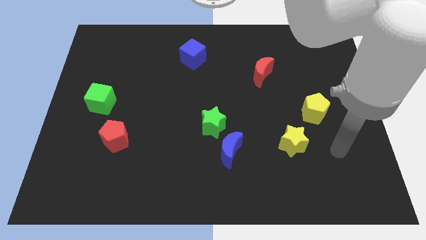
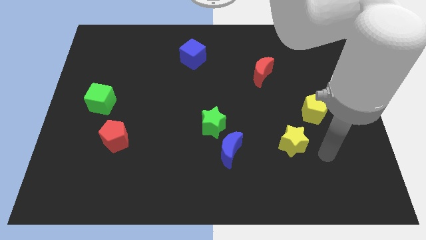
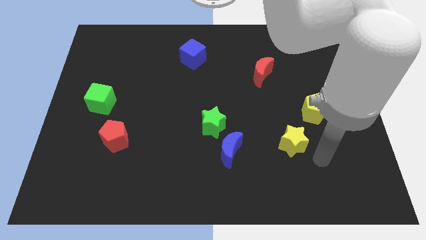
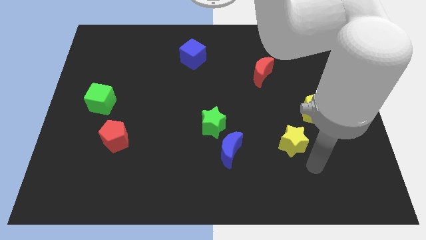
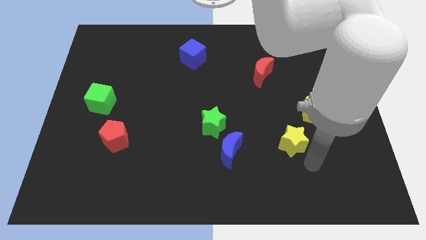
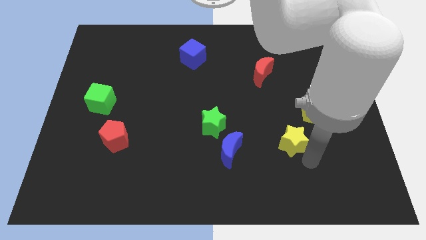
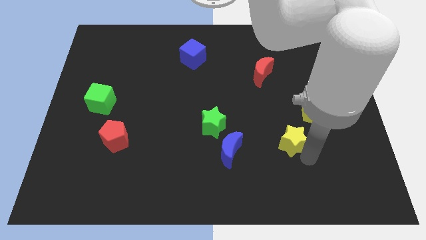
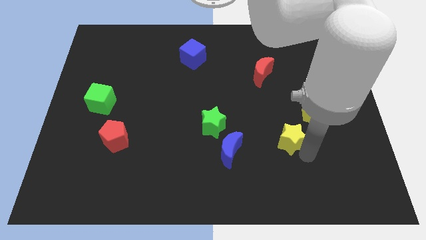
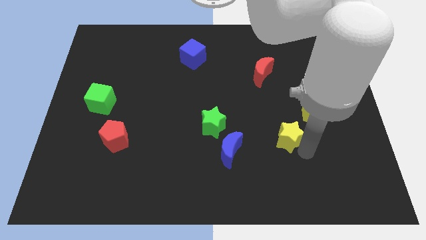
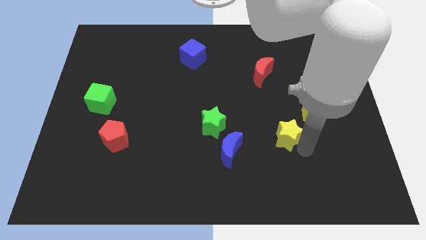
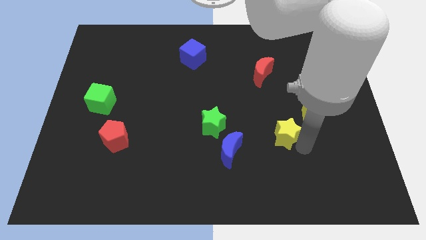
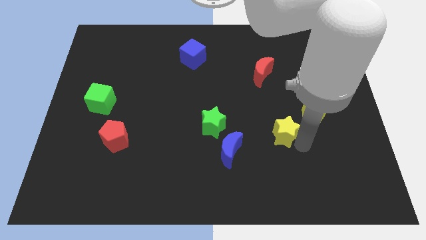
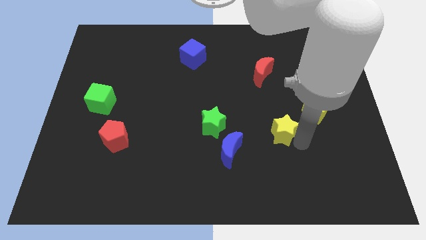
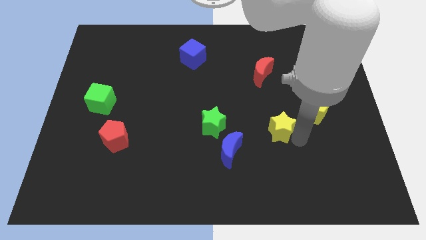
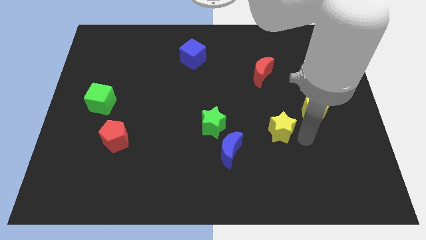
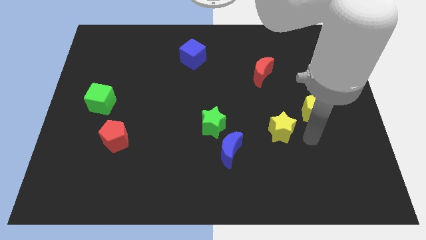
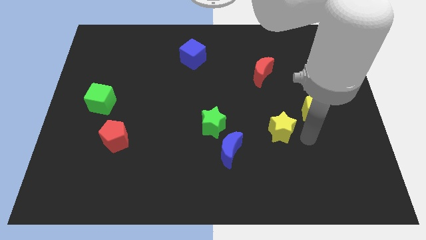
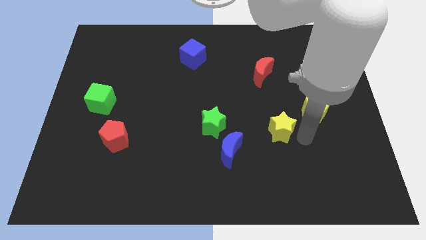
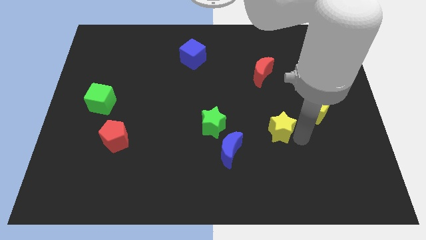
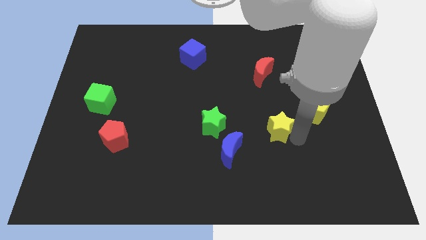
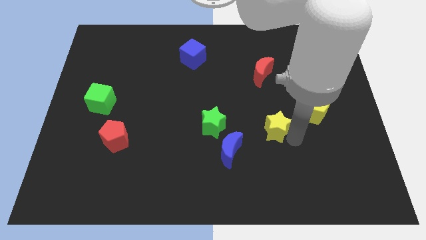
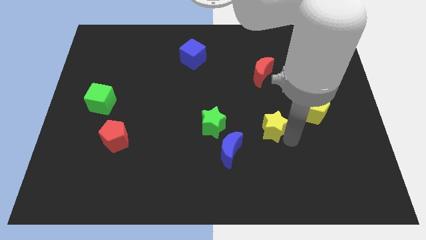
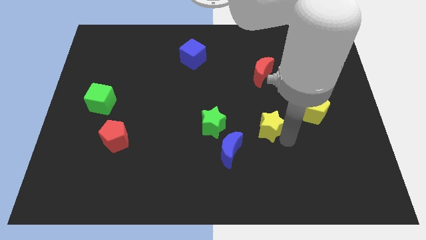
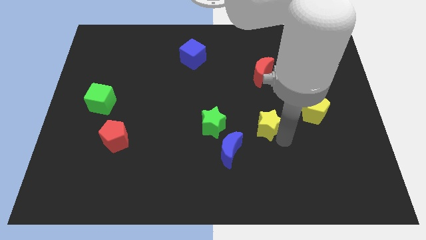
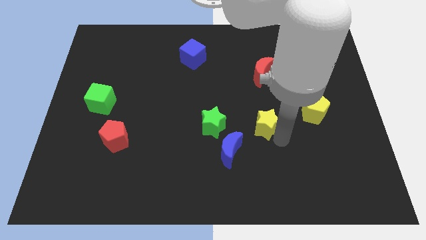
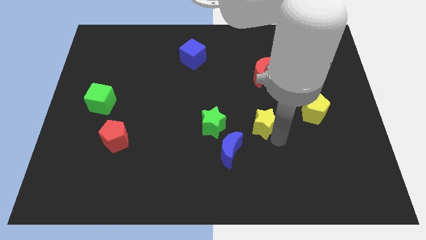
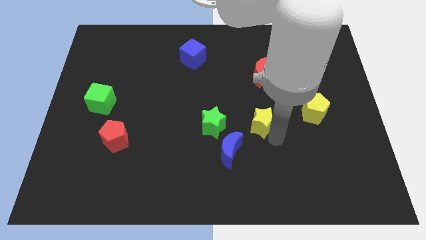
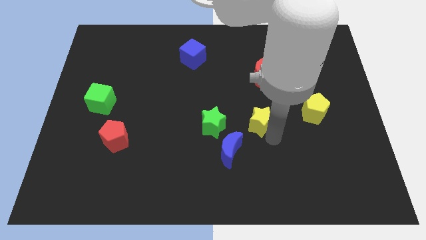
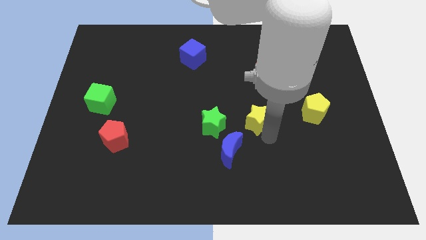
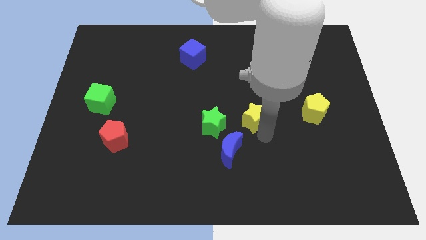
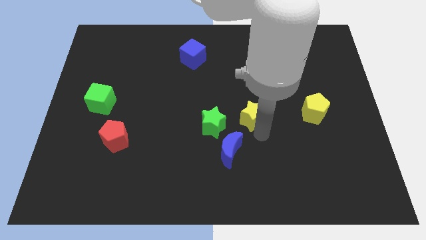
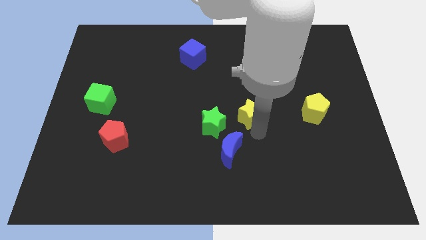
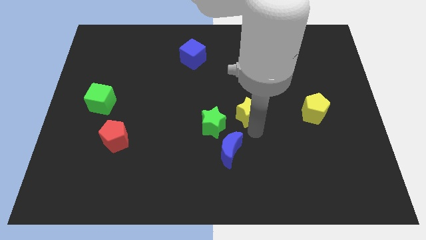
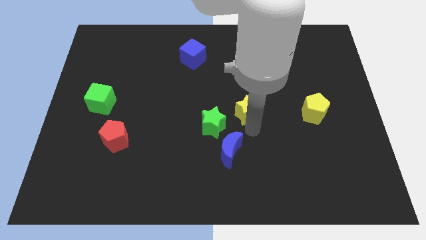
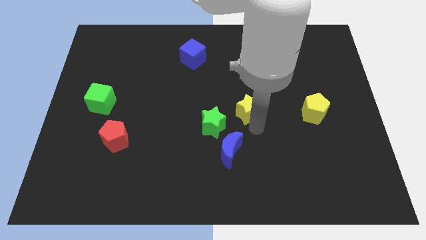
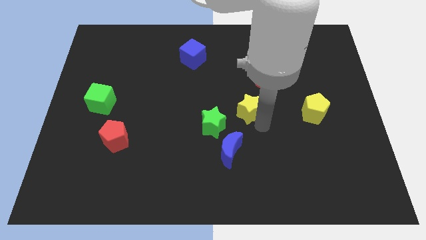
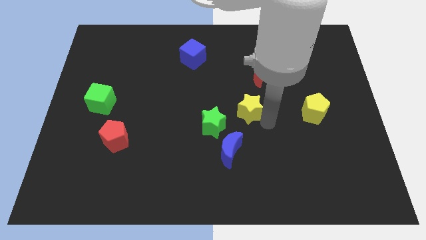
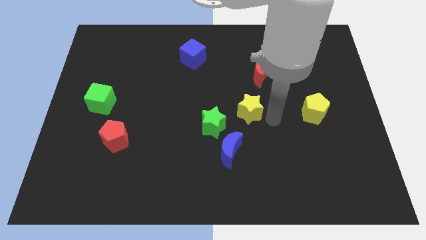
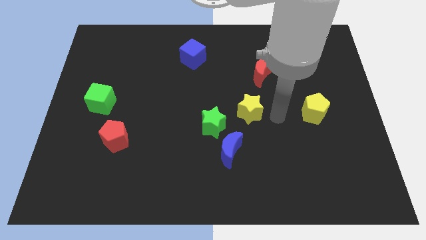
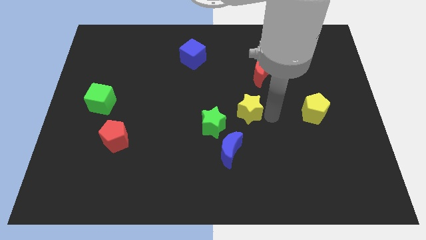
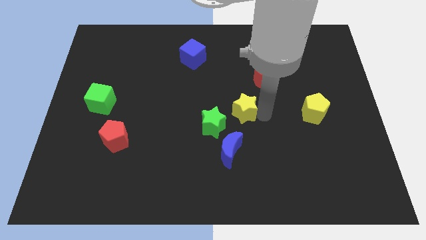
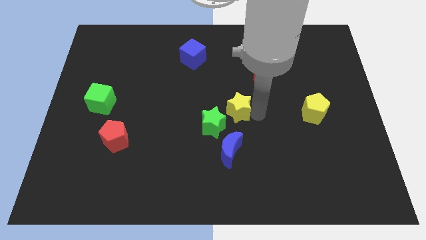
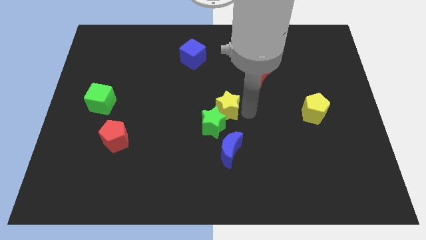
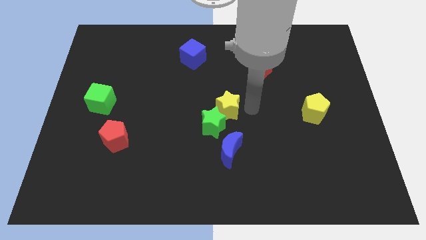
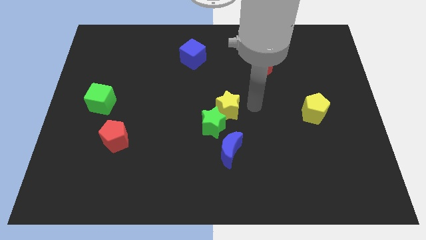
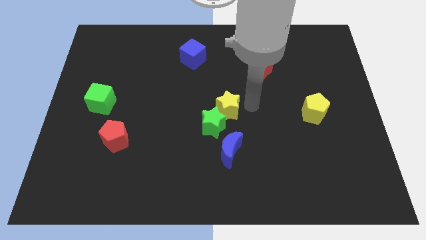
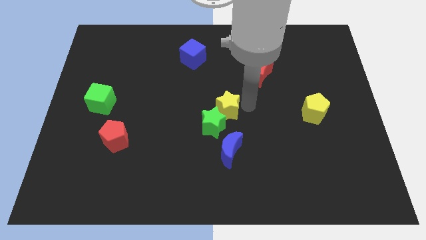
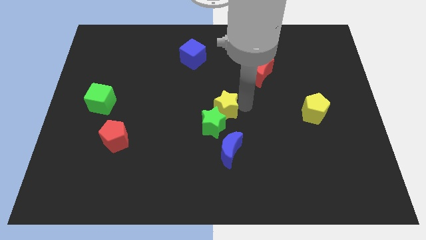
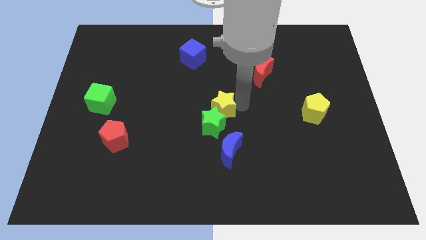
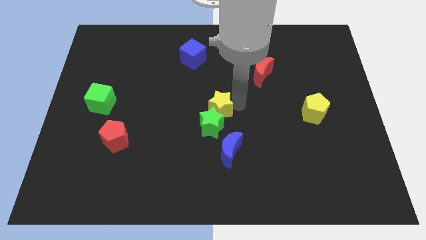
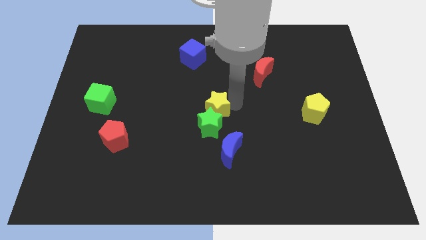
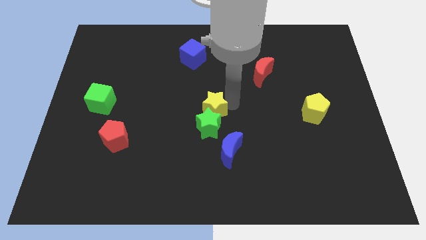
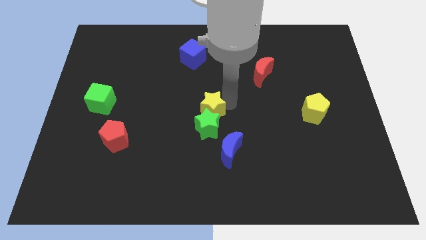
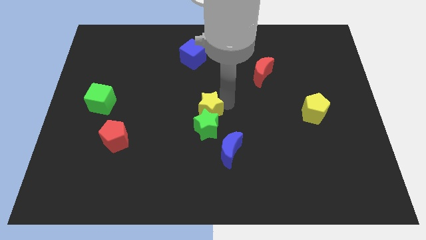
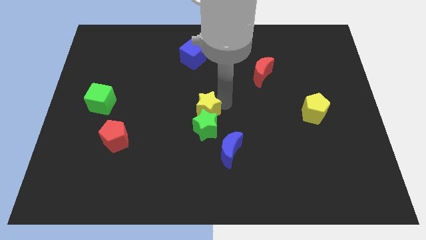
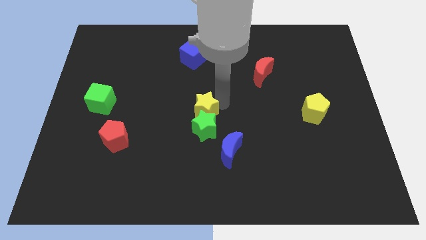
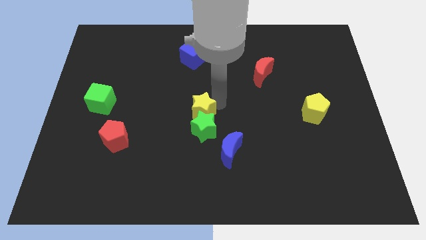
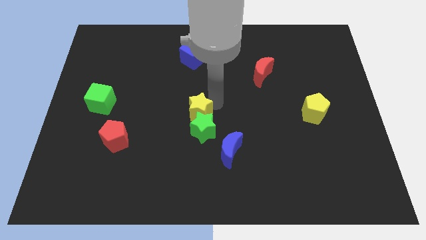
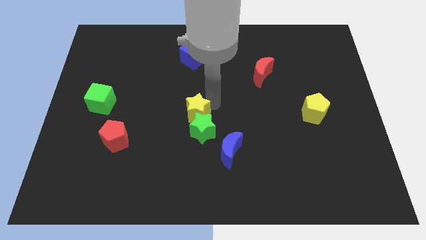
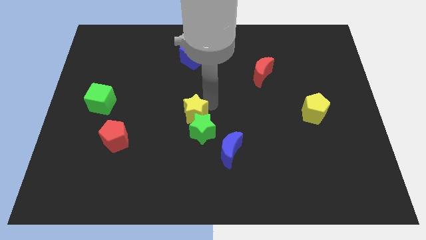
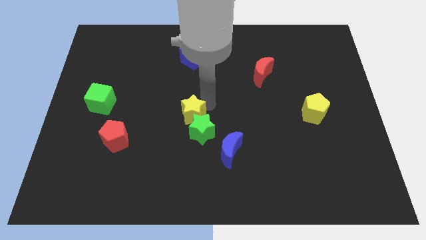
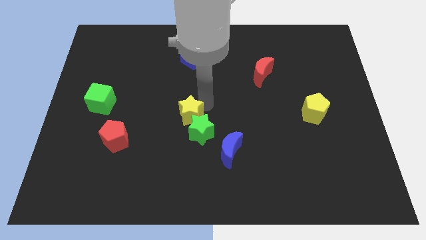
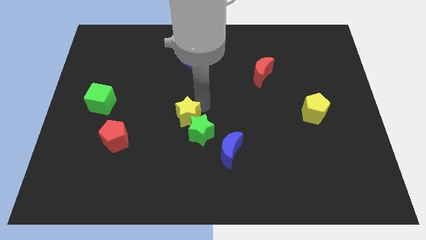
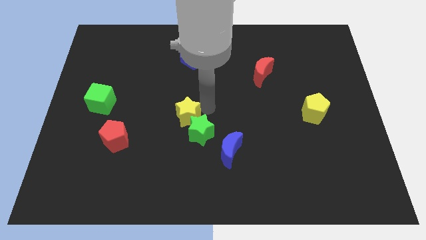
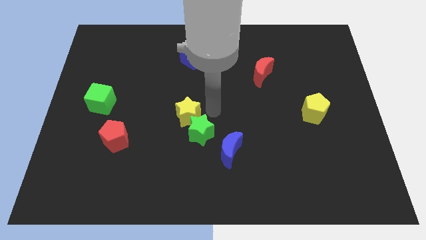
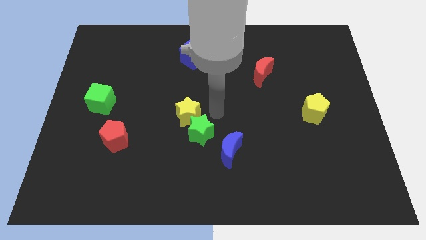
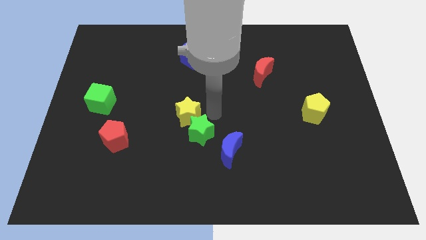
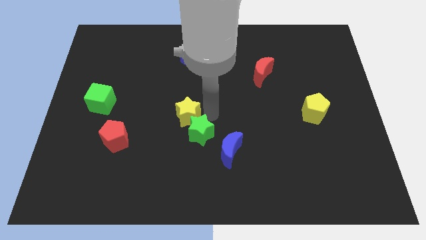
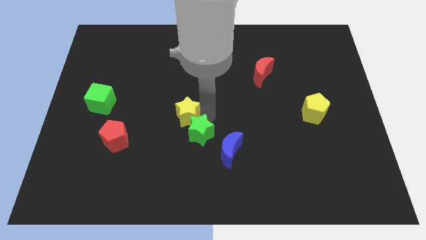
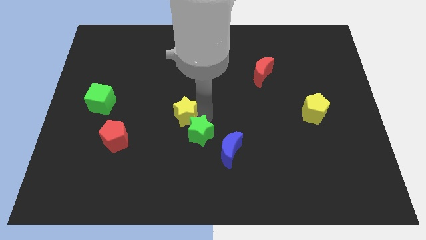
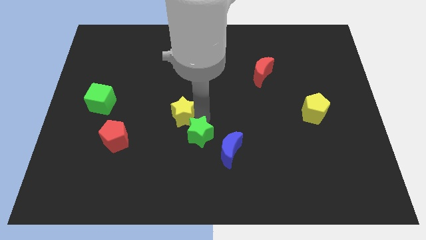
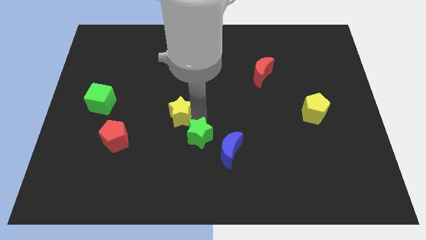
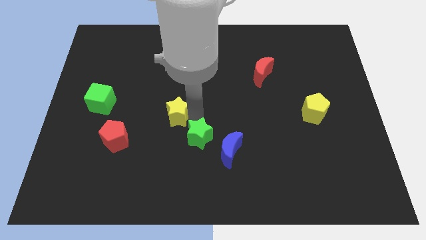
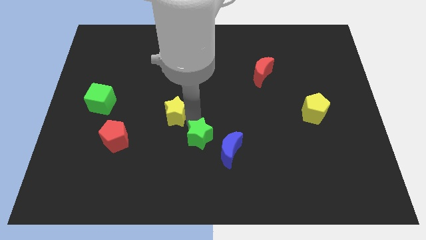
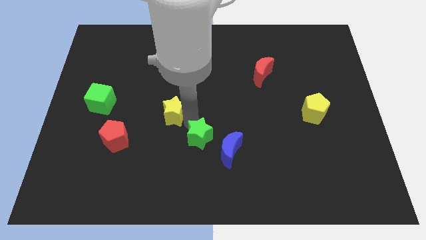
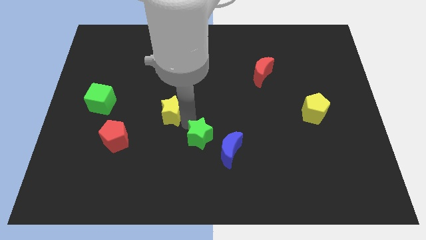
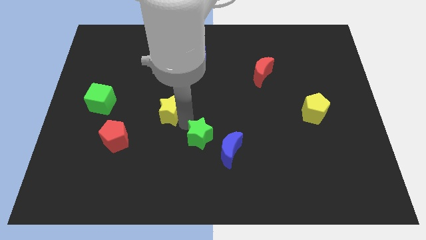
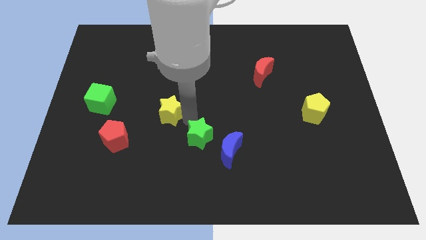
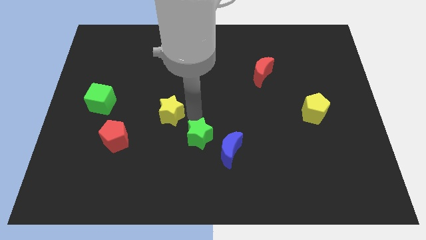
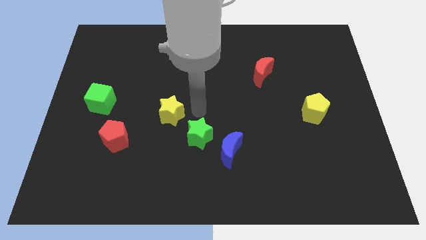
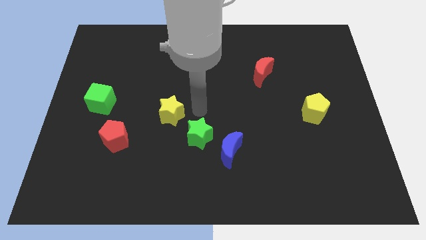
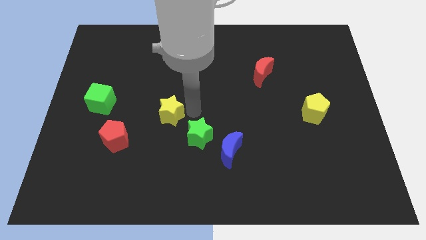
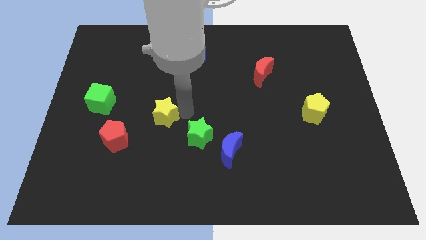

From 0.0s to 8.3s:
move the yellow star to the top right of the red pentagon

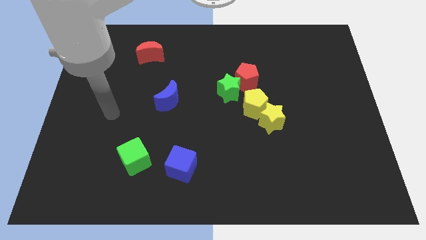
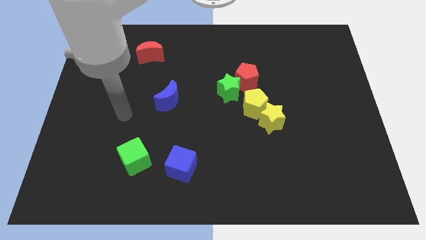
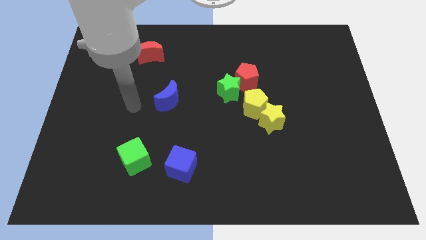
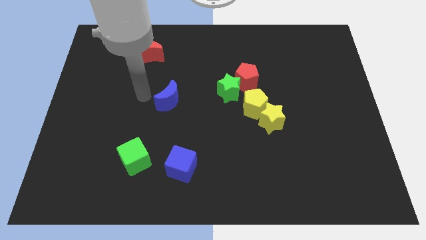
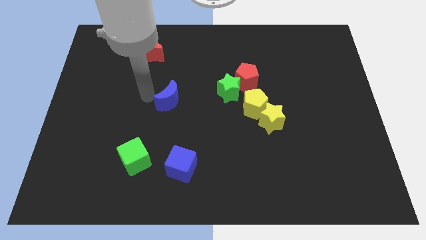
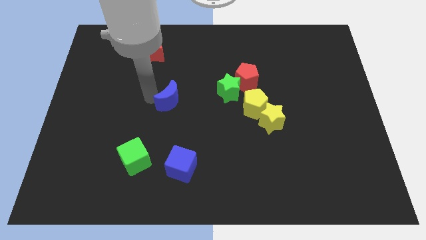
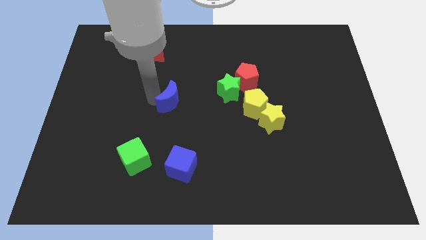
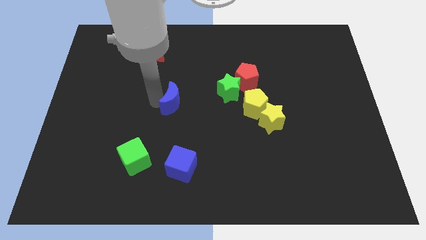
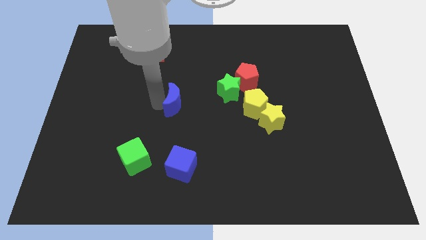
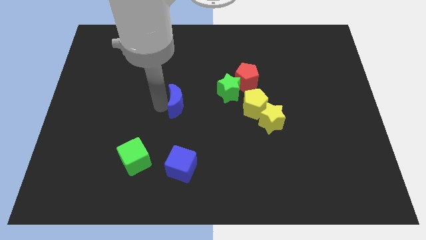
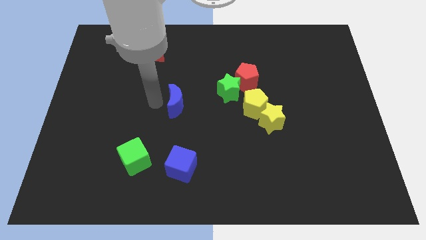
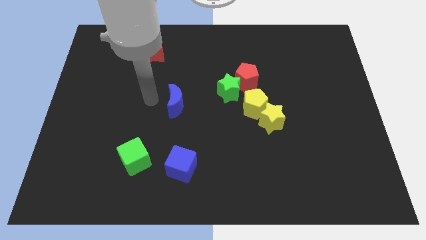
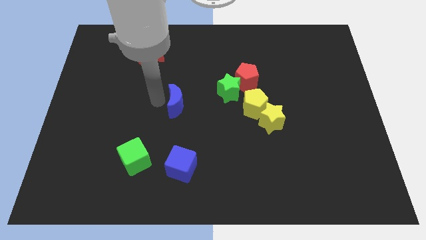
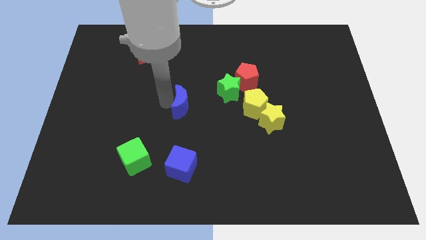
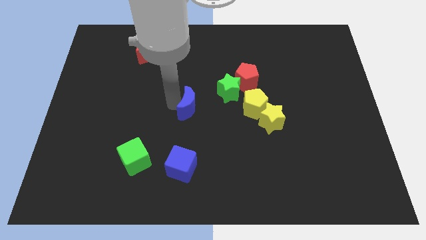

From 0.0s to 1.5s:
slide the blue moon to the bottom left side of the green star
